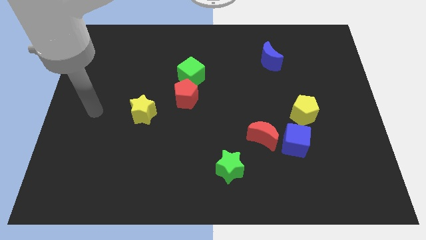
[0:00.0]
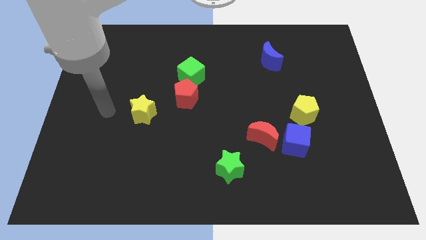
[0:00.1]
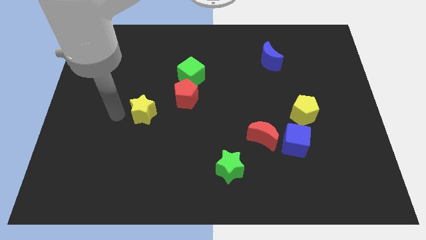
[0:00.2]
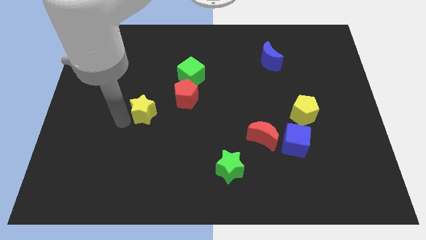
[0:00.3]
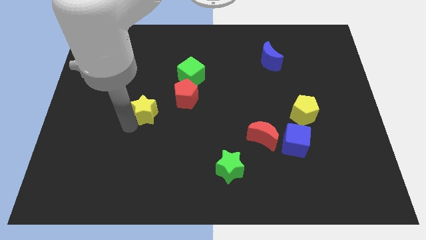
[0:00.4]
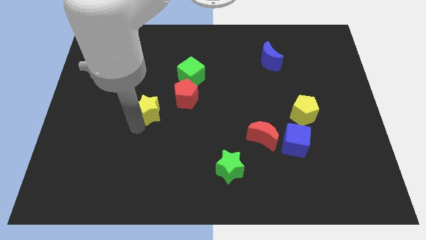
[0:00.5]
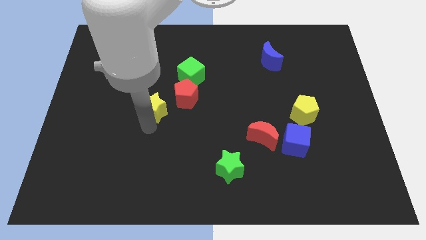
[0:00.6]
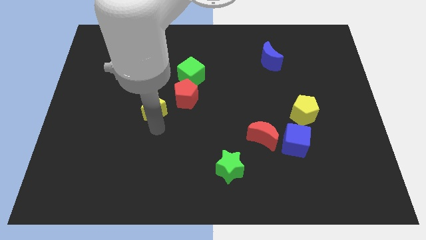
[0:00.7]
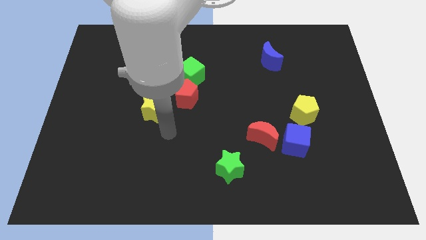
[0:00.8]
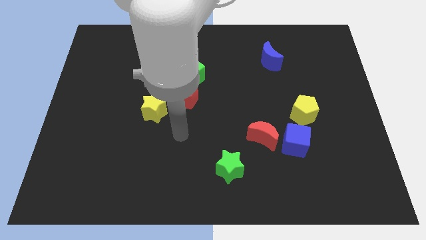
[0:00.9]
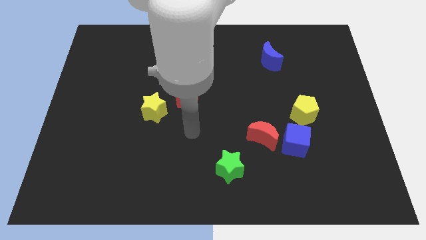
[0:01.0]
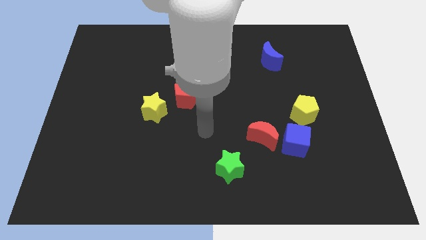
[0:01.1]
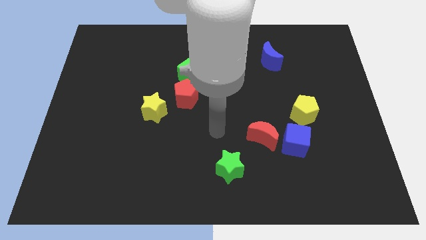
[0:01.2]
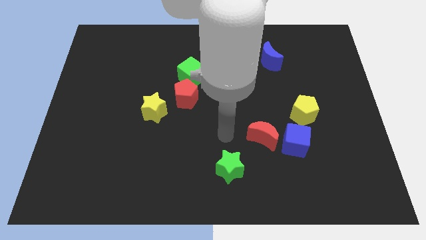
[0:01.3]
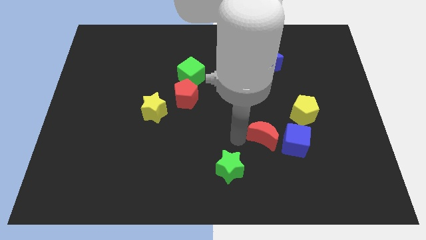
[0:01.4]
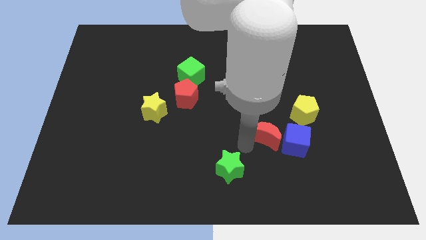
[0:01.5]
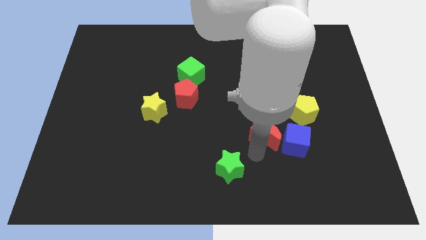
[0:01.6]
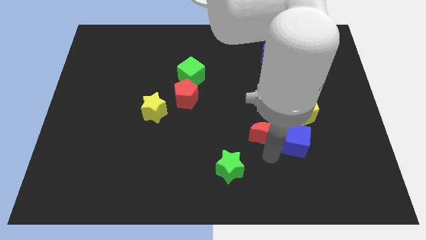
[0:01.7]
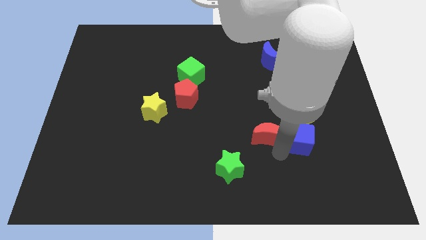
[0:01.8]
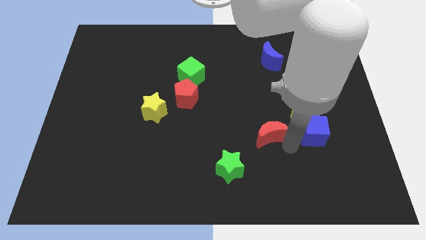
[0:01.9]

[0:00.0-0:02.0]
pull the red moon apart from the blue cube

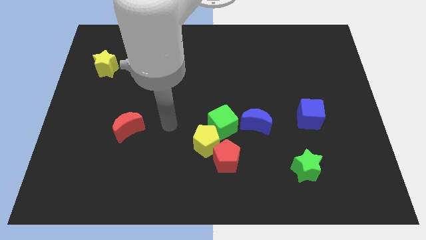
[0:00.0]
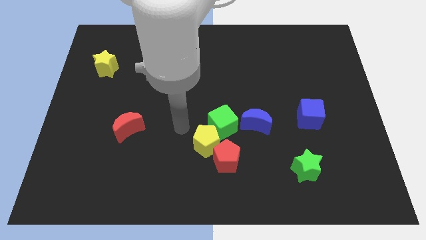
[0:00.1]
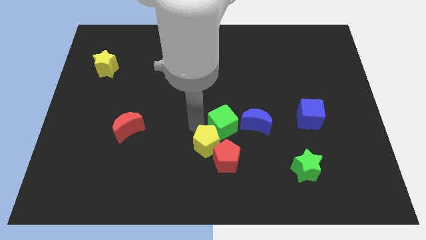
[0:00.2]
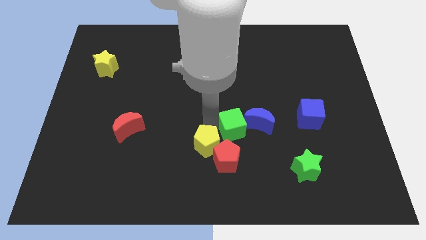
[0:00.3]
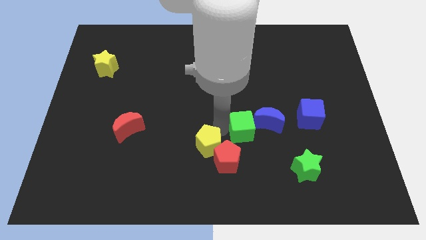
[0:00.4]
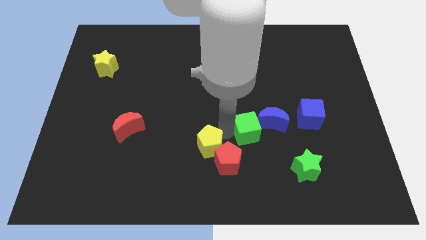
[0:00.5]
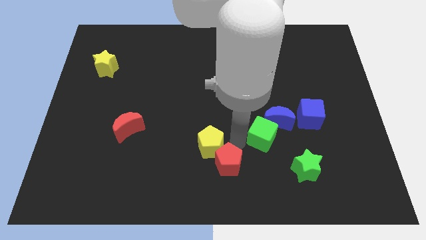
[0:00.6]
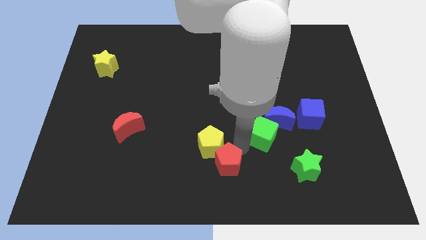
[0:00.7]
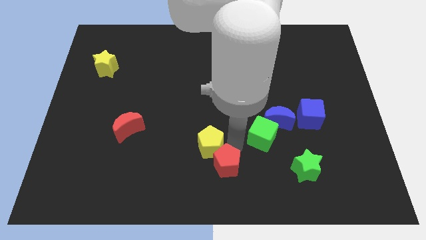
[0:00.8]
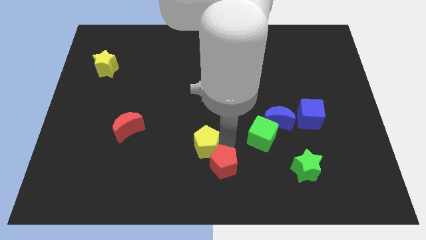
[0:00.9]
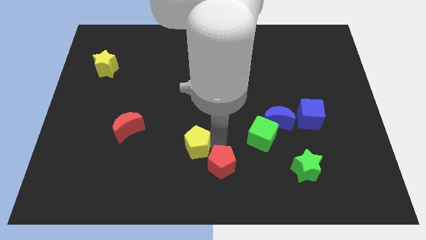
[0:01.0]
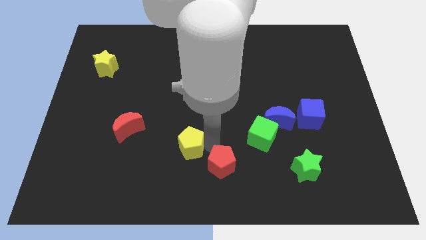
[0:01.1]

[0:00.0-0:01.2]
separate the yellow pentagon from the red pentagon and green cube

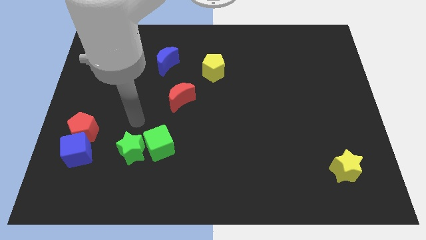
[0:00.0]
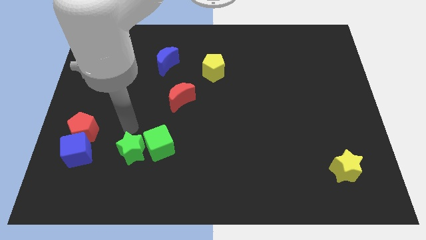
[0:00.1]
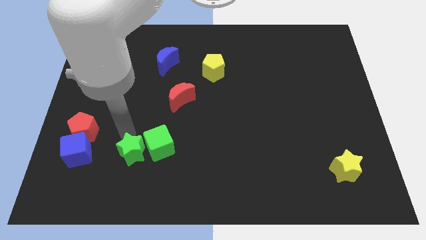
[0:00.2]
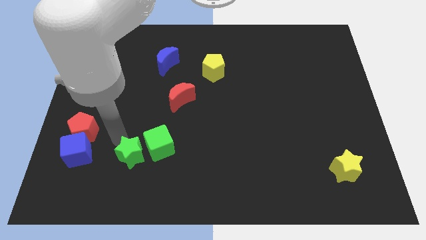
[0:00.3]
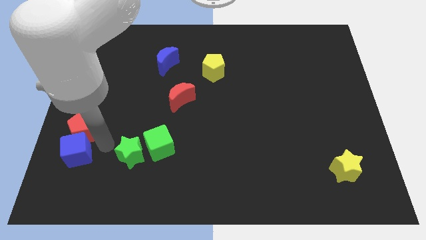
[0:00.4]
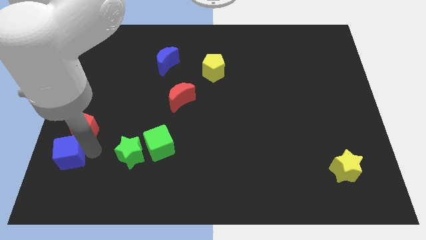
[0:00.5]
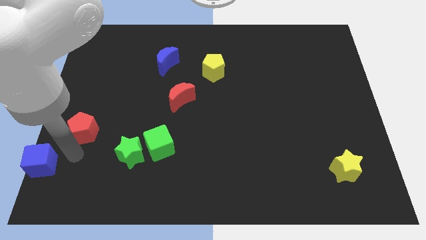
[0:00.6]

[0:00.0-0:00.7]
move the red pentagon away from the blue cube

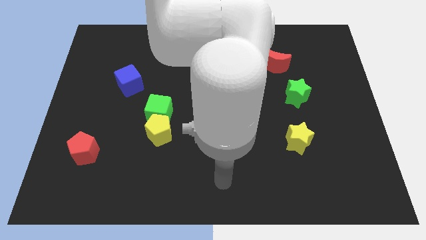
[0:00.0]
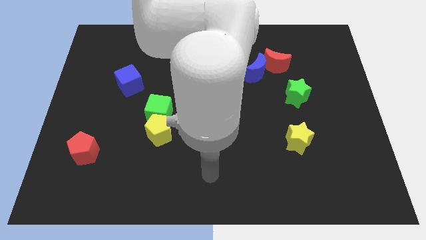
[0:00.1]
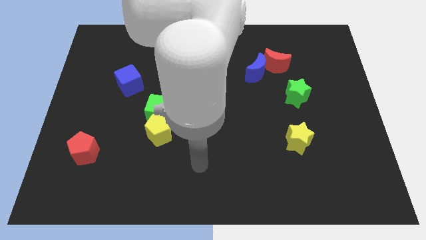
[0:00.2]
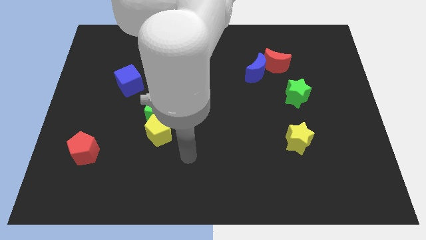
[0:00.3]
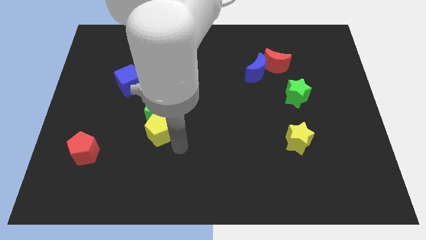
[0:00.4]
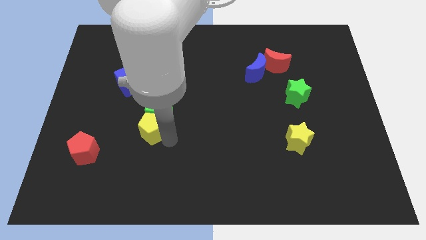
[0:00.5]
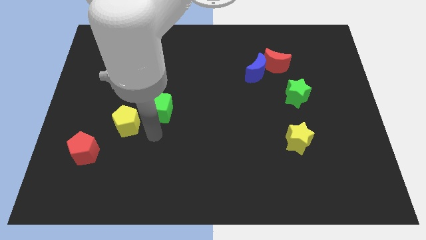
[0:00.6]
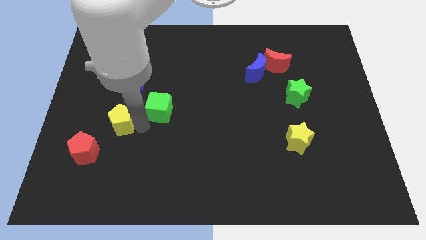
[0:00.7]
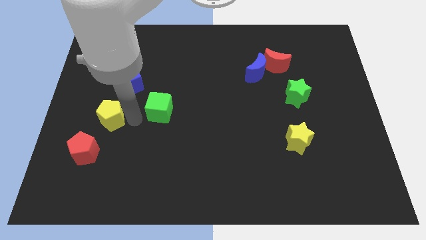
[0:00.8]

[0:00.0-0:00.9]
pull the green cube apart from the yellow pentagon

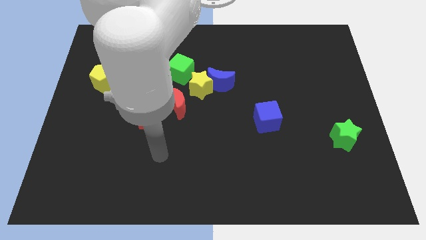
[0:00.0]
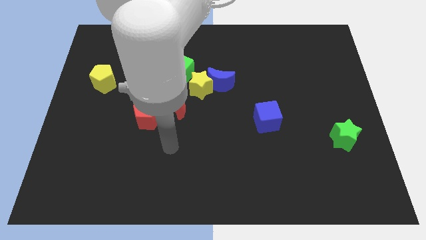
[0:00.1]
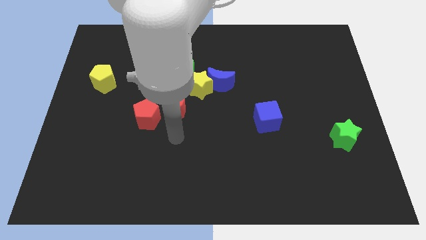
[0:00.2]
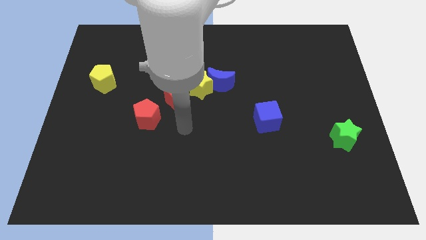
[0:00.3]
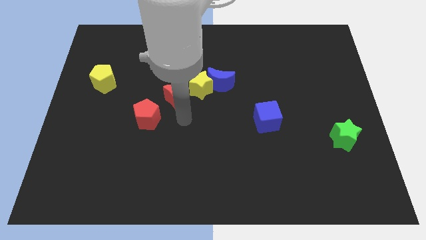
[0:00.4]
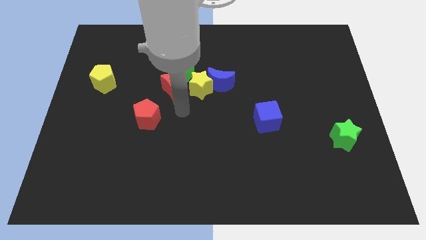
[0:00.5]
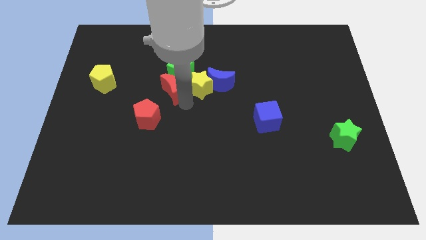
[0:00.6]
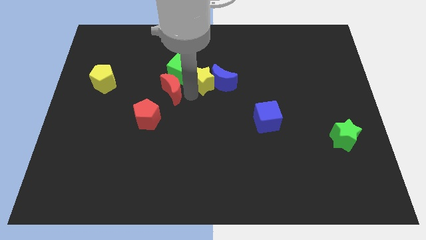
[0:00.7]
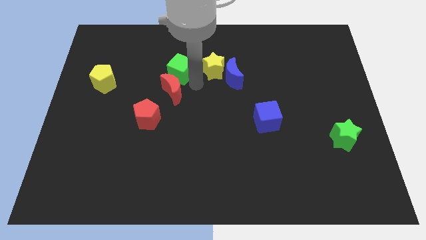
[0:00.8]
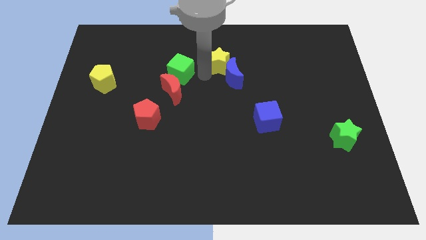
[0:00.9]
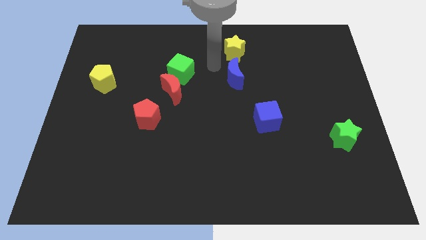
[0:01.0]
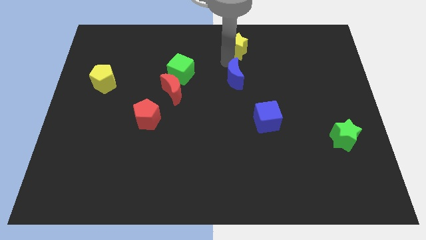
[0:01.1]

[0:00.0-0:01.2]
move the blue moon away from the yellow star

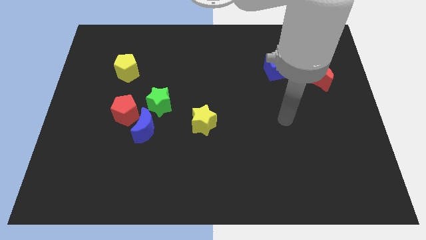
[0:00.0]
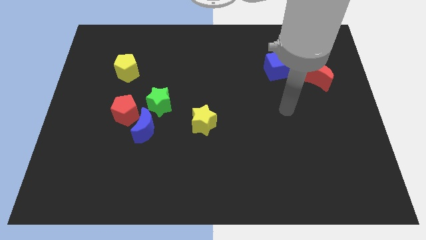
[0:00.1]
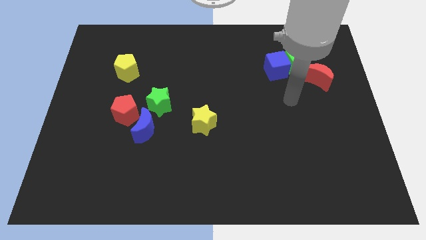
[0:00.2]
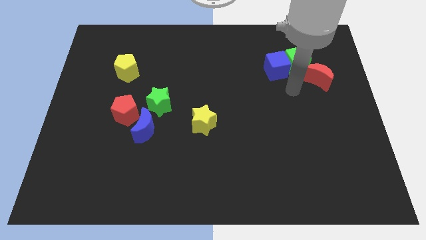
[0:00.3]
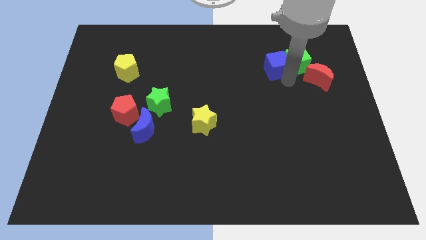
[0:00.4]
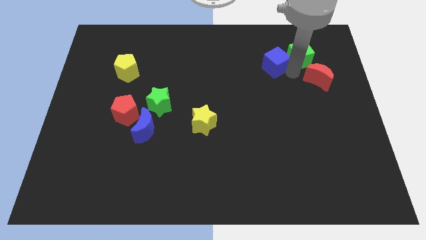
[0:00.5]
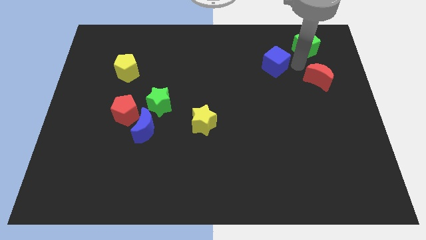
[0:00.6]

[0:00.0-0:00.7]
pull the blue cube apart from the green cube

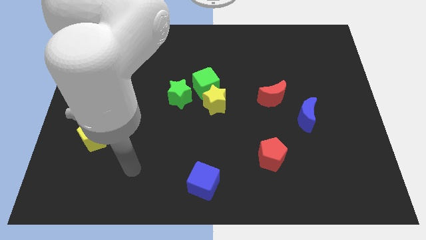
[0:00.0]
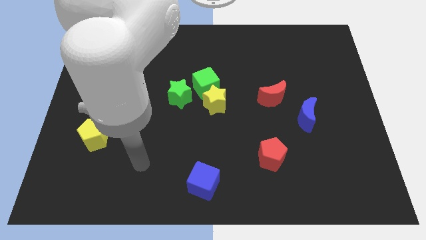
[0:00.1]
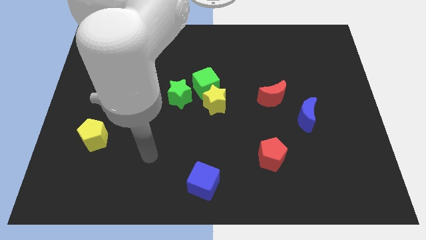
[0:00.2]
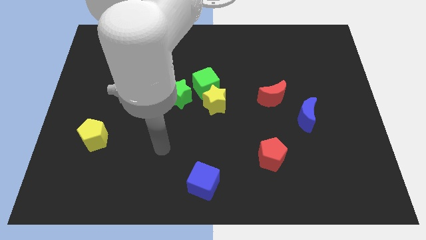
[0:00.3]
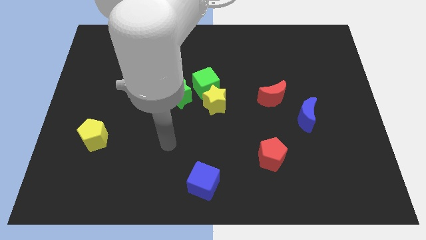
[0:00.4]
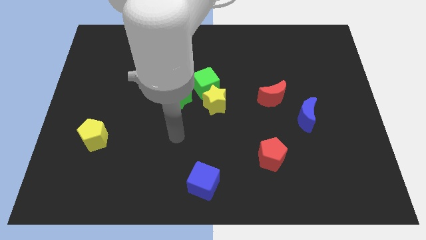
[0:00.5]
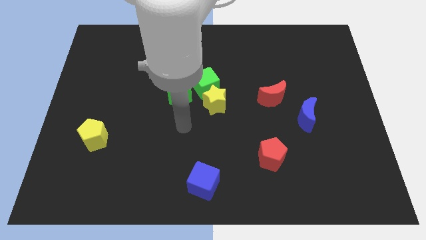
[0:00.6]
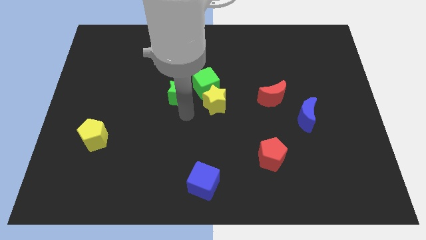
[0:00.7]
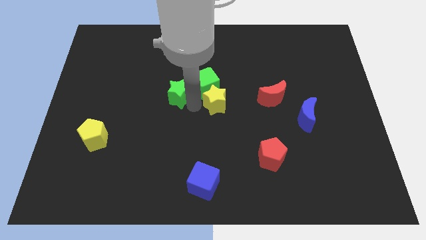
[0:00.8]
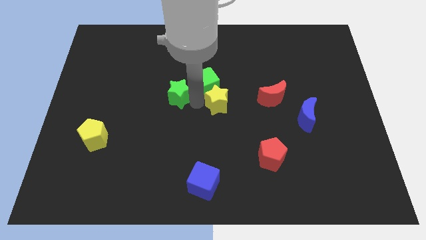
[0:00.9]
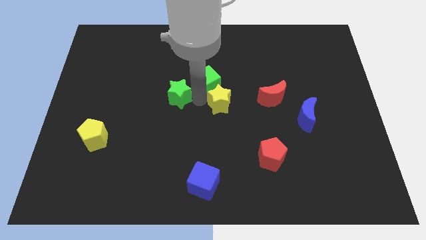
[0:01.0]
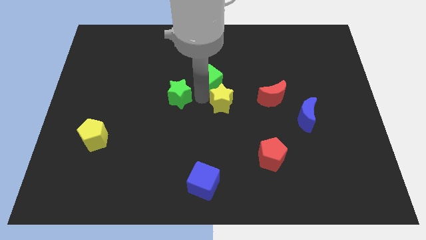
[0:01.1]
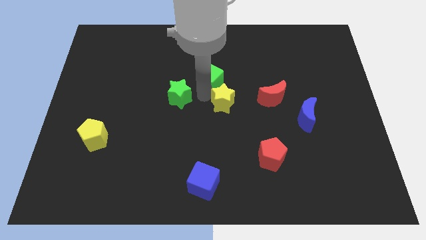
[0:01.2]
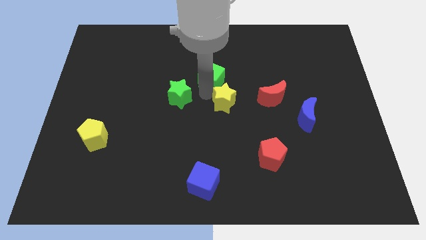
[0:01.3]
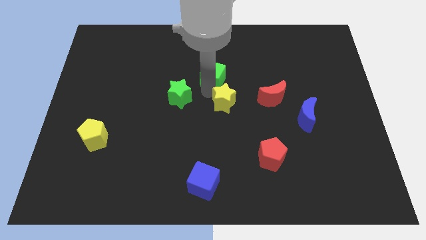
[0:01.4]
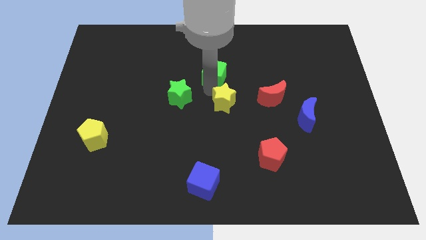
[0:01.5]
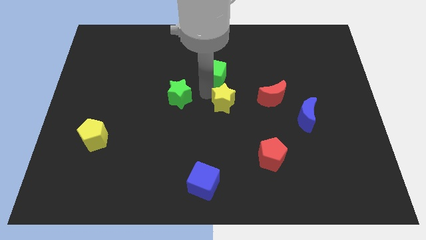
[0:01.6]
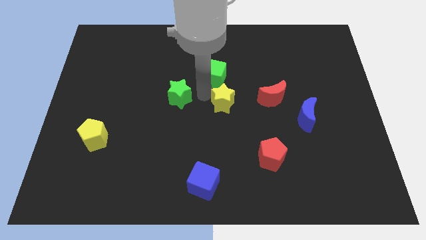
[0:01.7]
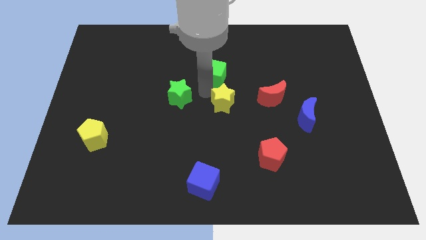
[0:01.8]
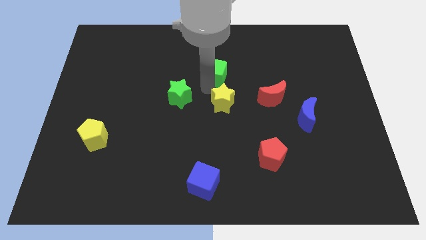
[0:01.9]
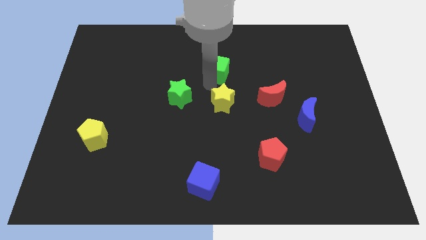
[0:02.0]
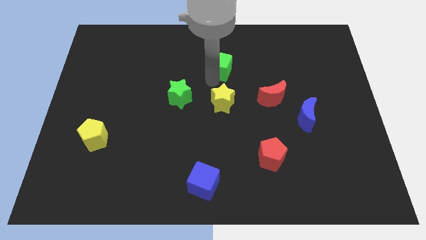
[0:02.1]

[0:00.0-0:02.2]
move the green cube away from the yellow star and green star

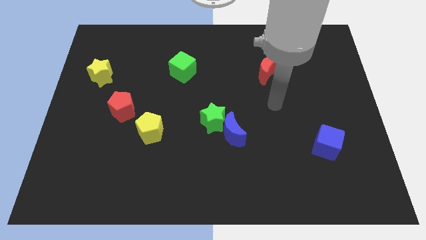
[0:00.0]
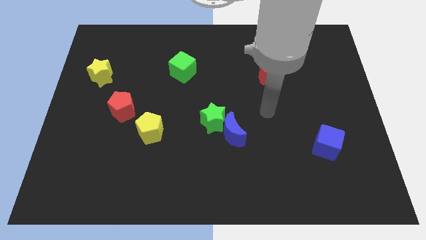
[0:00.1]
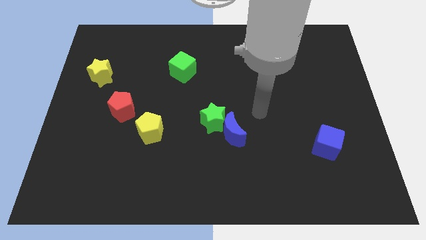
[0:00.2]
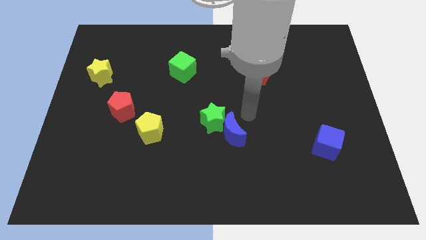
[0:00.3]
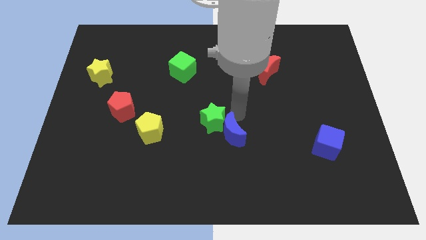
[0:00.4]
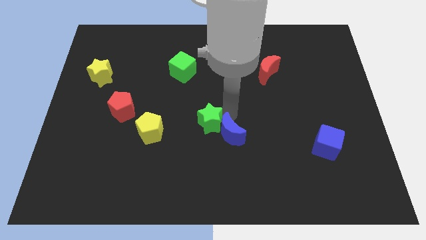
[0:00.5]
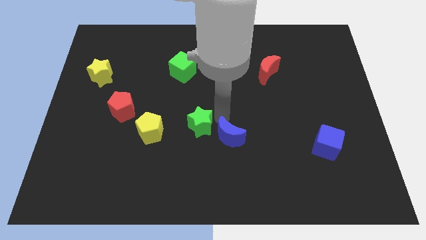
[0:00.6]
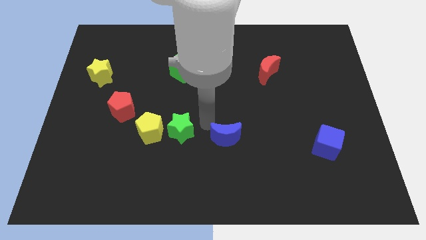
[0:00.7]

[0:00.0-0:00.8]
move the blue moon away from the green star
